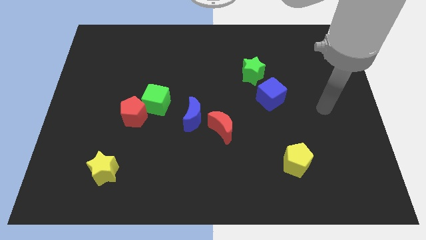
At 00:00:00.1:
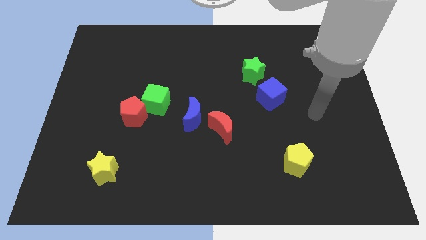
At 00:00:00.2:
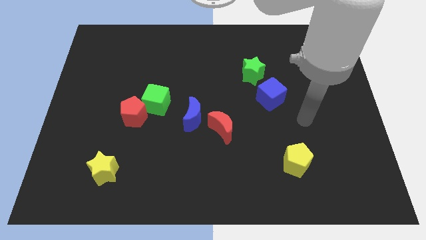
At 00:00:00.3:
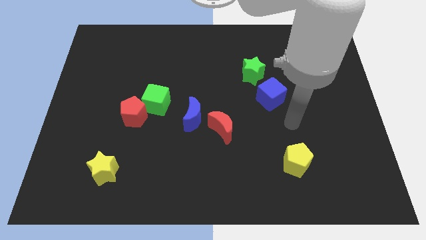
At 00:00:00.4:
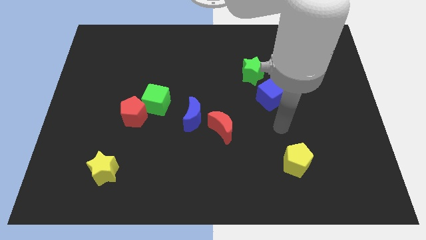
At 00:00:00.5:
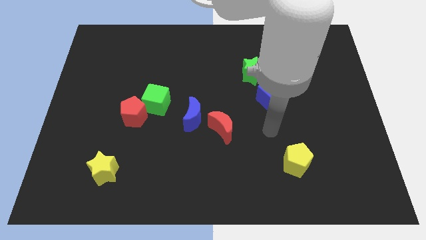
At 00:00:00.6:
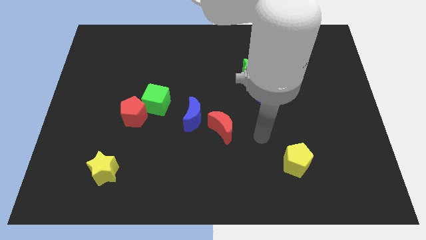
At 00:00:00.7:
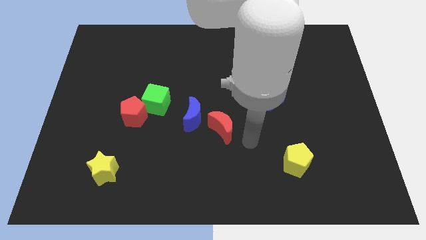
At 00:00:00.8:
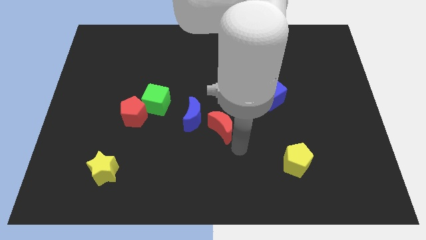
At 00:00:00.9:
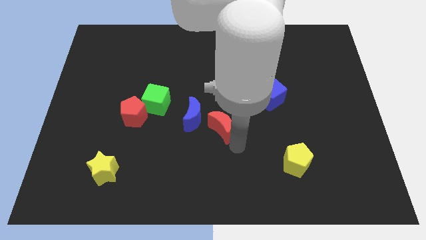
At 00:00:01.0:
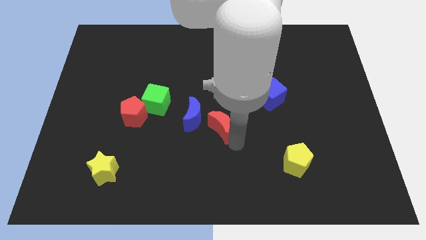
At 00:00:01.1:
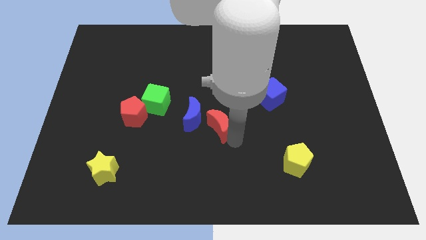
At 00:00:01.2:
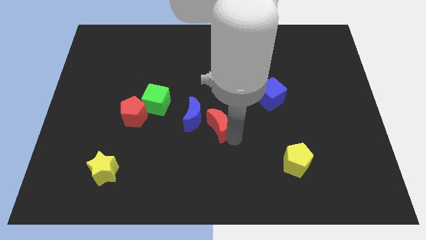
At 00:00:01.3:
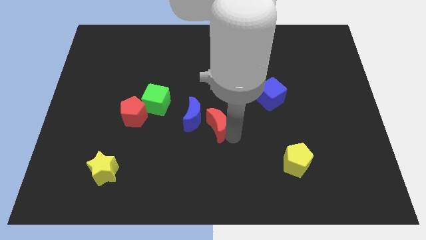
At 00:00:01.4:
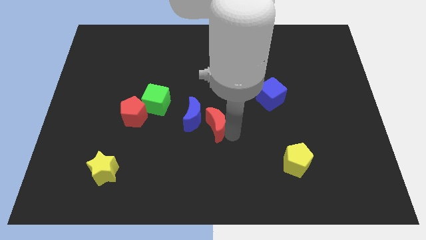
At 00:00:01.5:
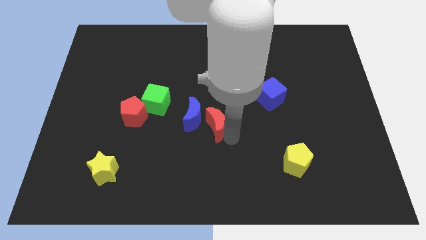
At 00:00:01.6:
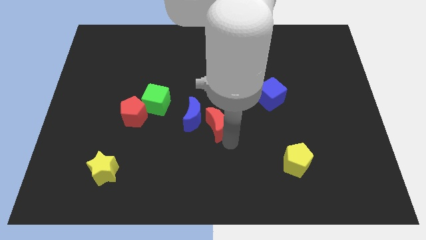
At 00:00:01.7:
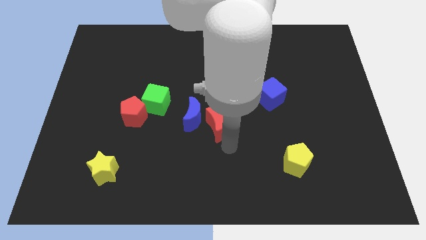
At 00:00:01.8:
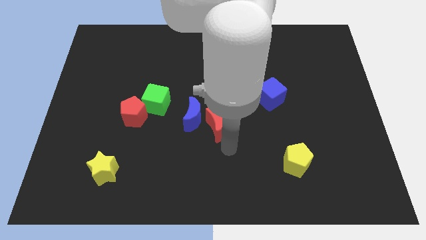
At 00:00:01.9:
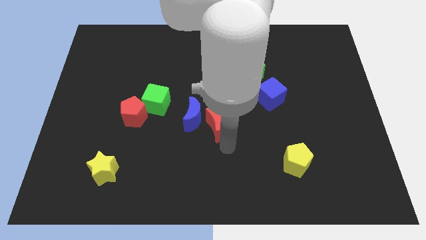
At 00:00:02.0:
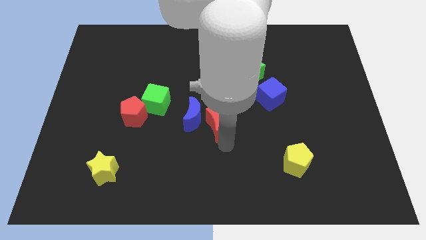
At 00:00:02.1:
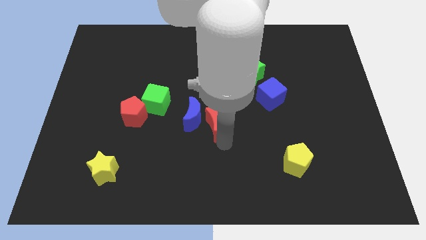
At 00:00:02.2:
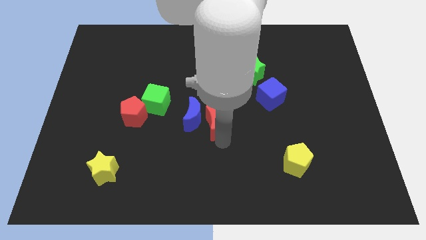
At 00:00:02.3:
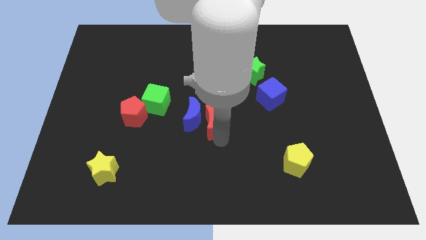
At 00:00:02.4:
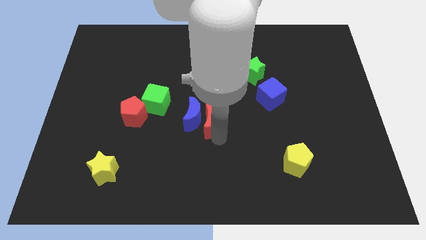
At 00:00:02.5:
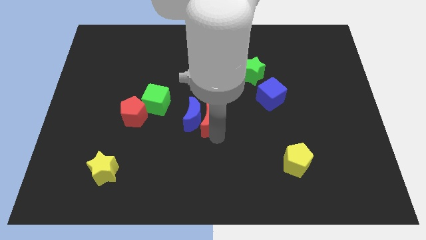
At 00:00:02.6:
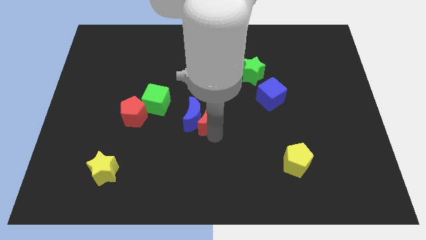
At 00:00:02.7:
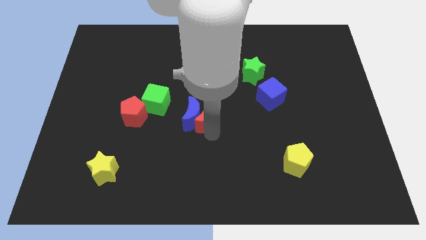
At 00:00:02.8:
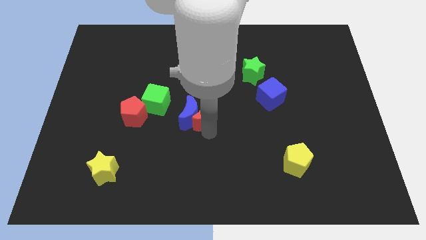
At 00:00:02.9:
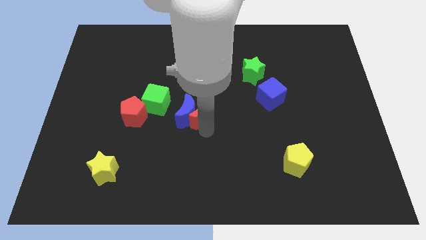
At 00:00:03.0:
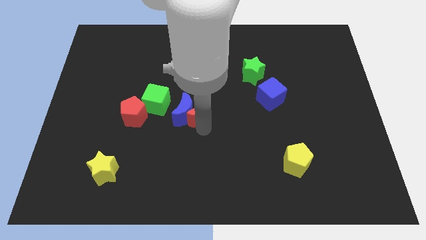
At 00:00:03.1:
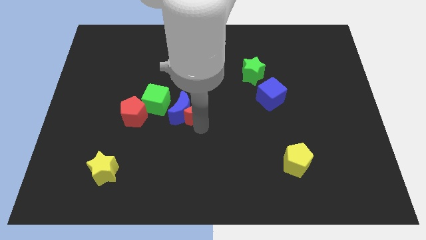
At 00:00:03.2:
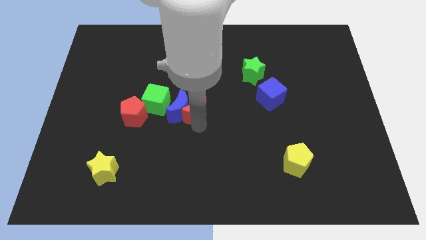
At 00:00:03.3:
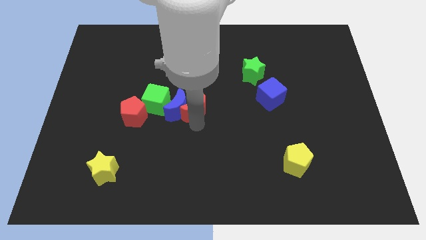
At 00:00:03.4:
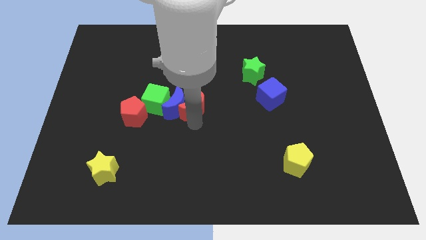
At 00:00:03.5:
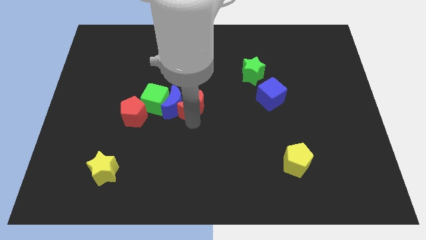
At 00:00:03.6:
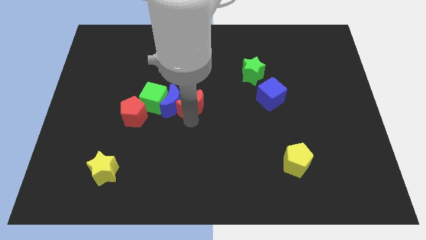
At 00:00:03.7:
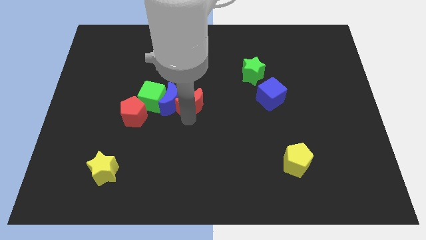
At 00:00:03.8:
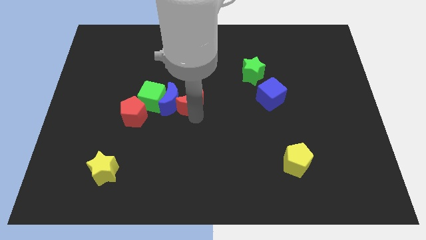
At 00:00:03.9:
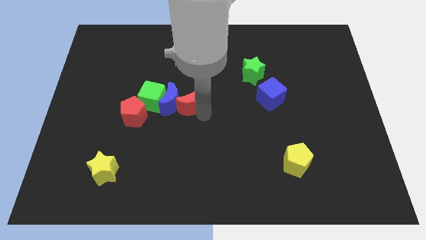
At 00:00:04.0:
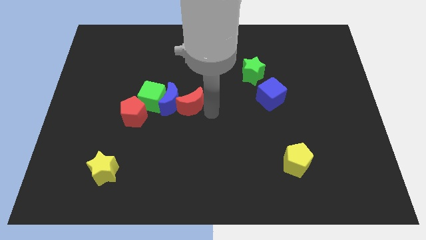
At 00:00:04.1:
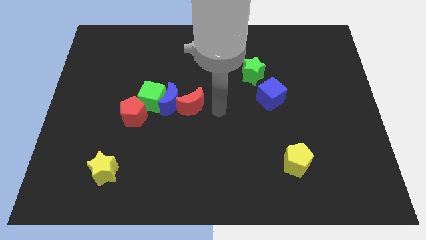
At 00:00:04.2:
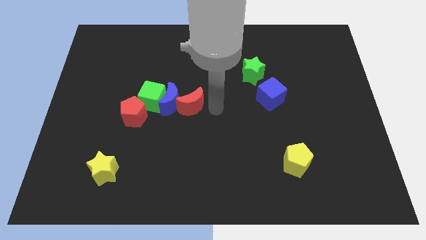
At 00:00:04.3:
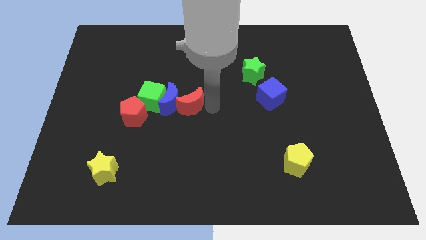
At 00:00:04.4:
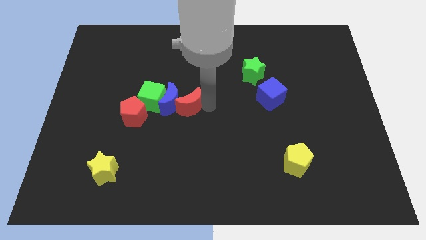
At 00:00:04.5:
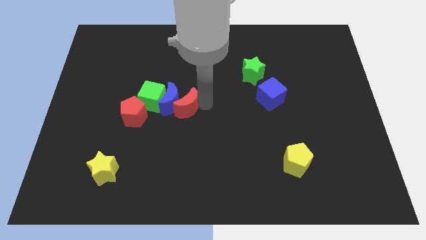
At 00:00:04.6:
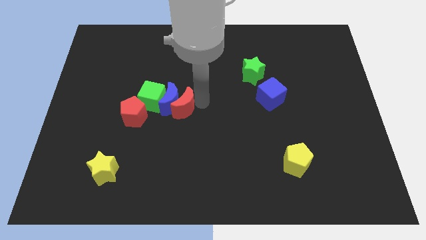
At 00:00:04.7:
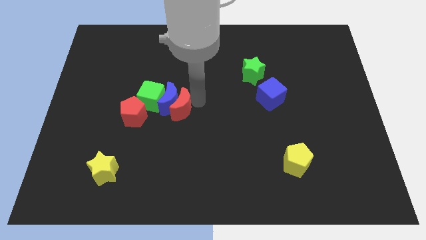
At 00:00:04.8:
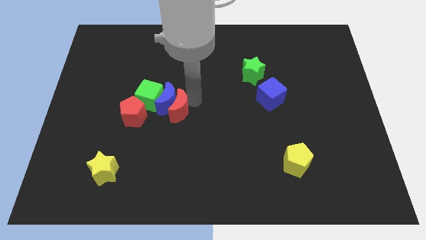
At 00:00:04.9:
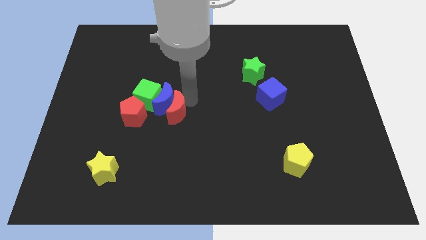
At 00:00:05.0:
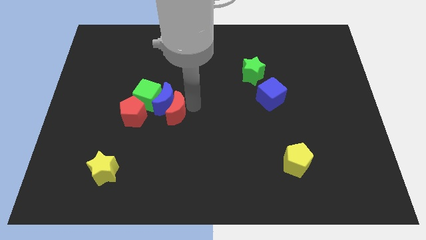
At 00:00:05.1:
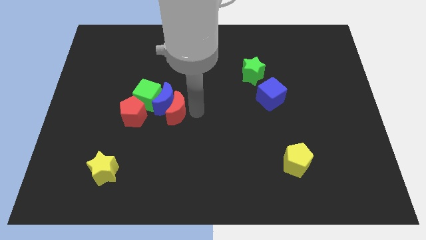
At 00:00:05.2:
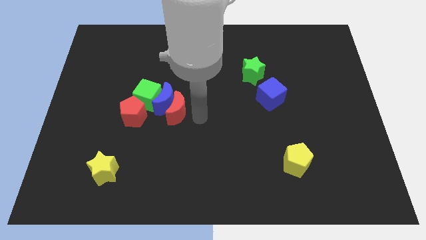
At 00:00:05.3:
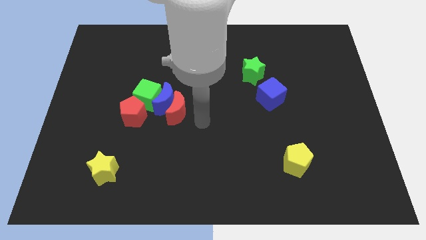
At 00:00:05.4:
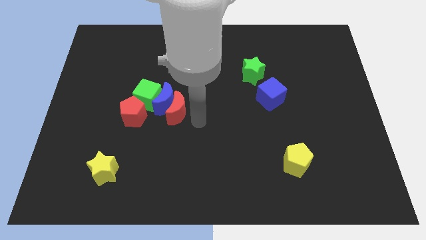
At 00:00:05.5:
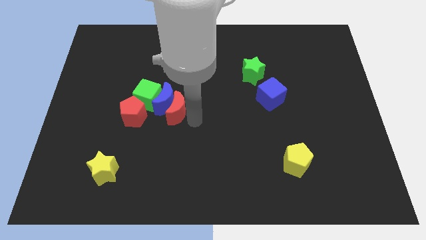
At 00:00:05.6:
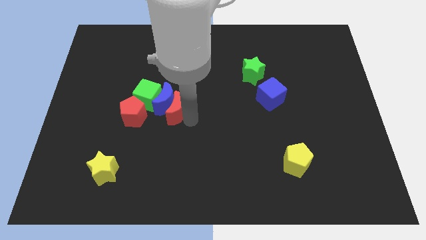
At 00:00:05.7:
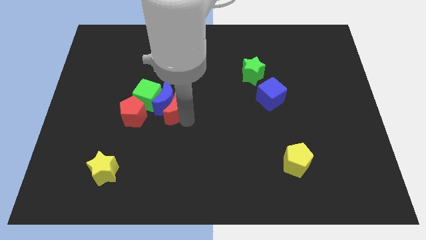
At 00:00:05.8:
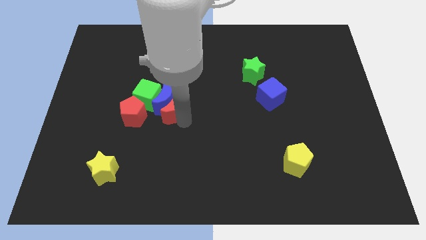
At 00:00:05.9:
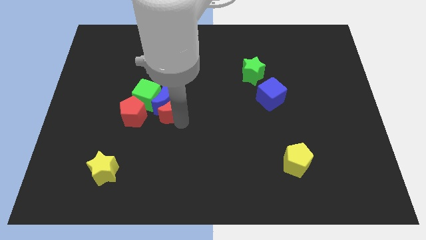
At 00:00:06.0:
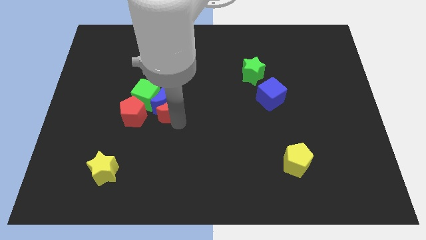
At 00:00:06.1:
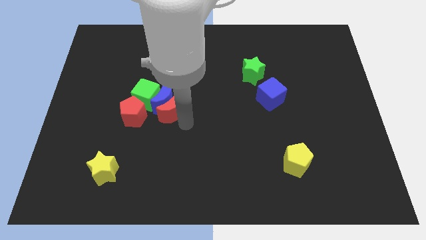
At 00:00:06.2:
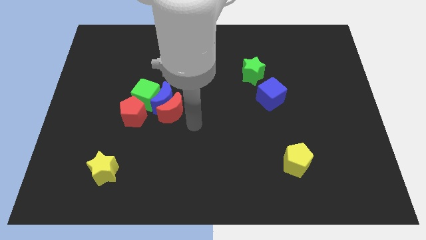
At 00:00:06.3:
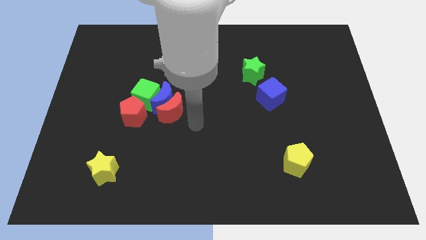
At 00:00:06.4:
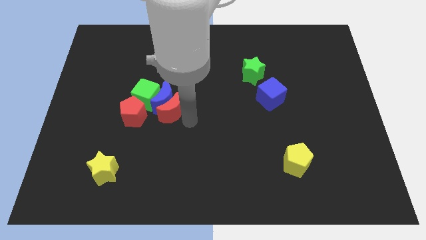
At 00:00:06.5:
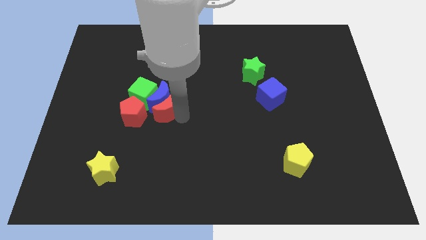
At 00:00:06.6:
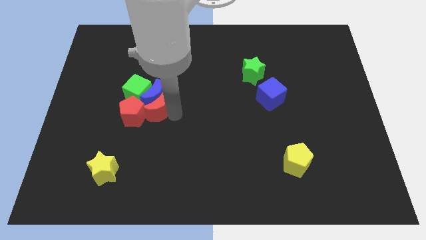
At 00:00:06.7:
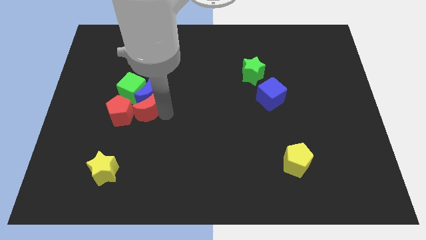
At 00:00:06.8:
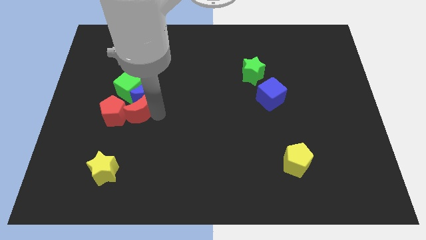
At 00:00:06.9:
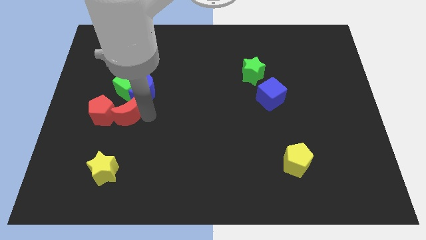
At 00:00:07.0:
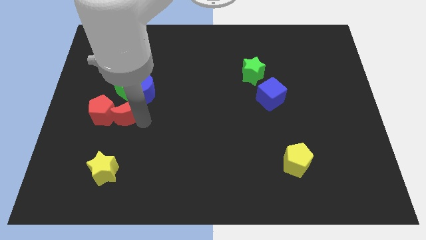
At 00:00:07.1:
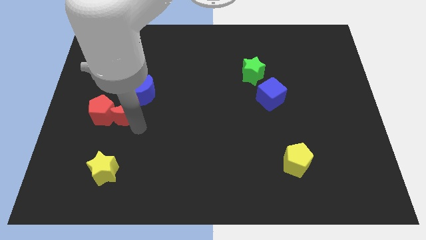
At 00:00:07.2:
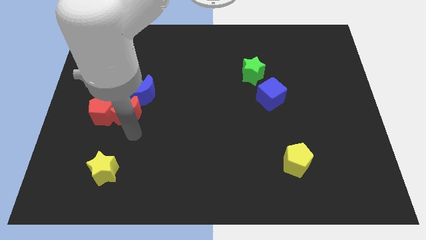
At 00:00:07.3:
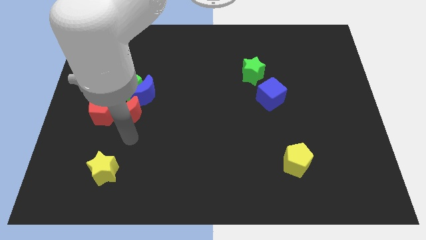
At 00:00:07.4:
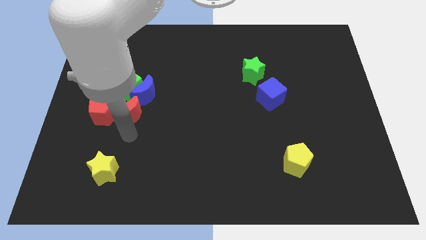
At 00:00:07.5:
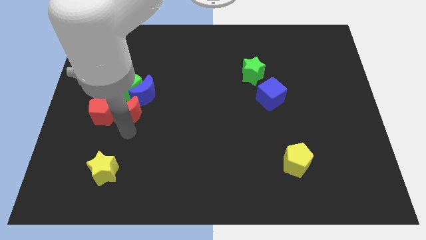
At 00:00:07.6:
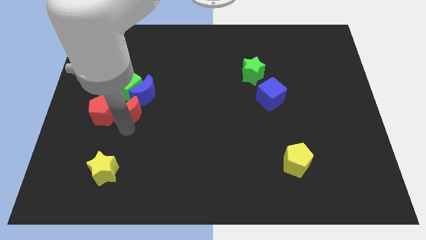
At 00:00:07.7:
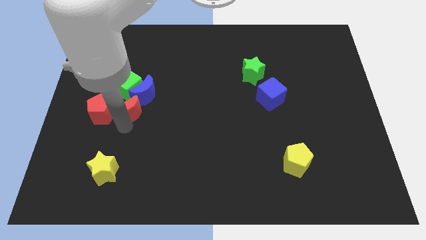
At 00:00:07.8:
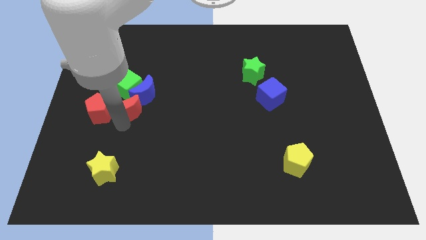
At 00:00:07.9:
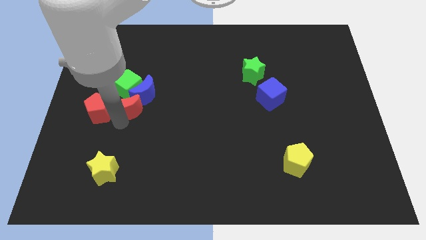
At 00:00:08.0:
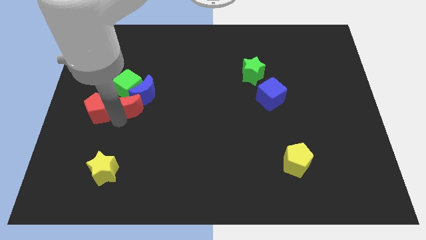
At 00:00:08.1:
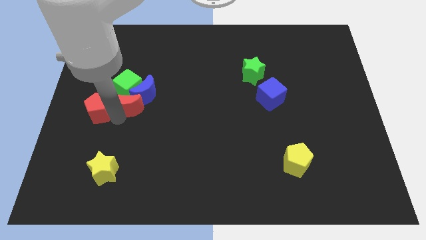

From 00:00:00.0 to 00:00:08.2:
slide the red moon next to the green cube

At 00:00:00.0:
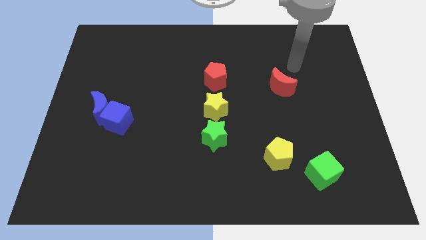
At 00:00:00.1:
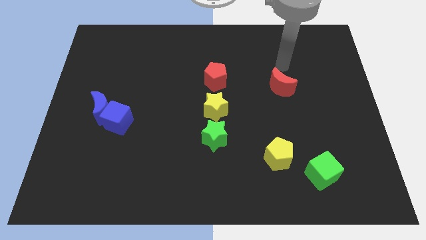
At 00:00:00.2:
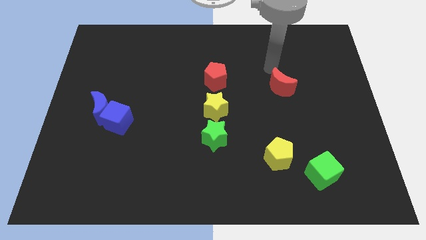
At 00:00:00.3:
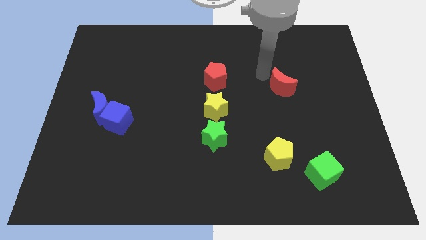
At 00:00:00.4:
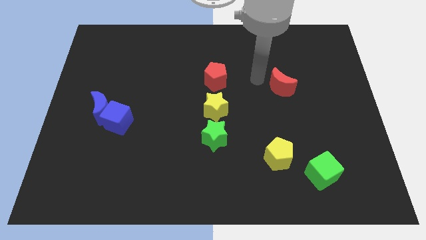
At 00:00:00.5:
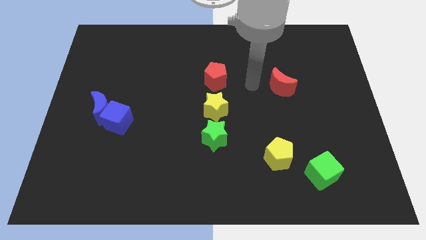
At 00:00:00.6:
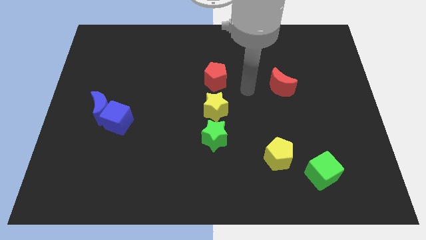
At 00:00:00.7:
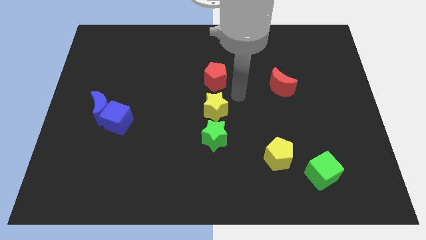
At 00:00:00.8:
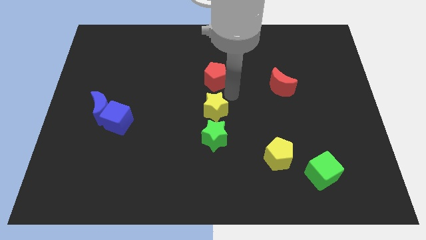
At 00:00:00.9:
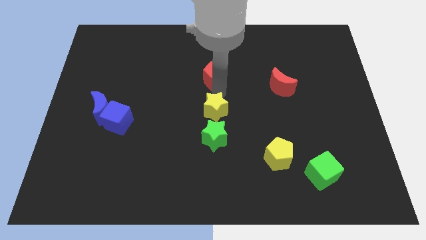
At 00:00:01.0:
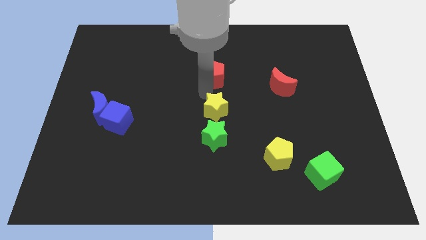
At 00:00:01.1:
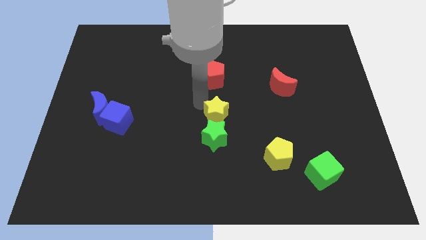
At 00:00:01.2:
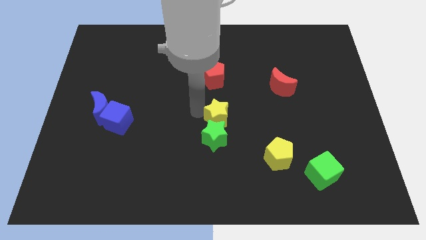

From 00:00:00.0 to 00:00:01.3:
move the green star to the yellow star
